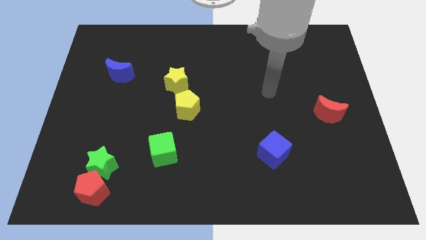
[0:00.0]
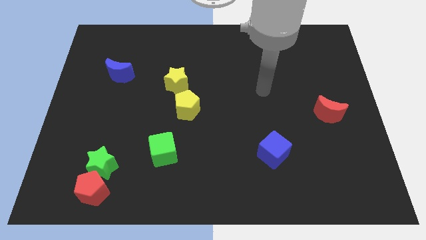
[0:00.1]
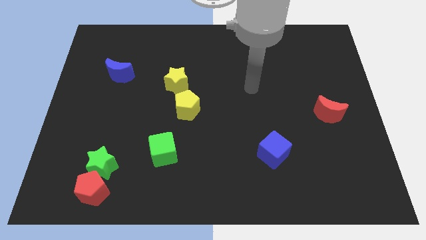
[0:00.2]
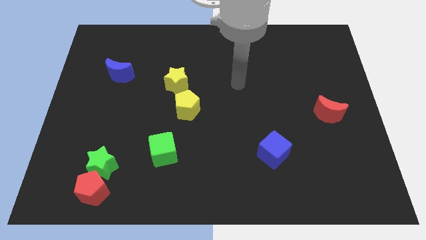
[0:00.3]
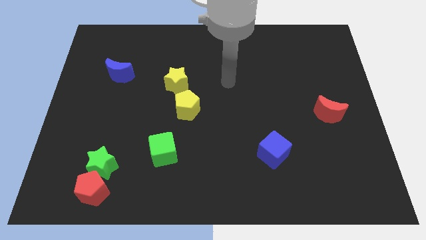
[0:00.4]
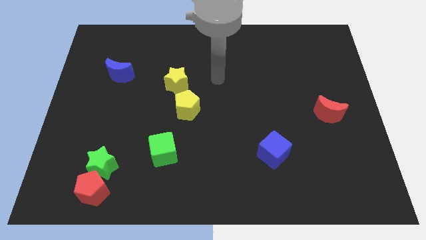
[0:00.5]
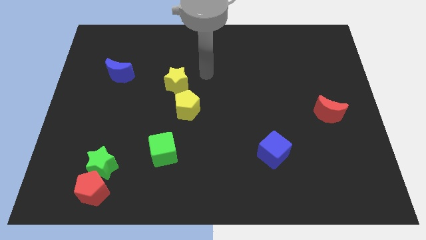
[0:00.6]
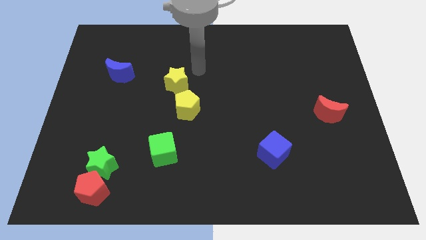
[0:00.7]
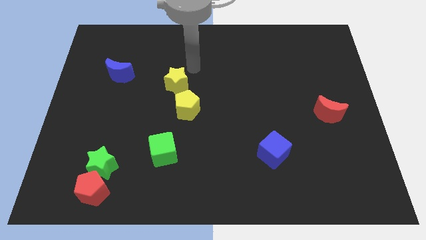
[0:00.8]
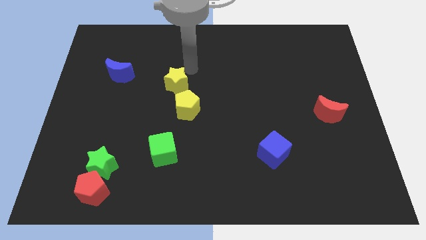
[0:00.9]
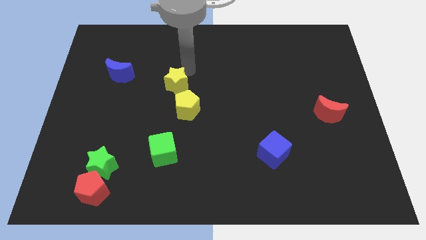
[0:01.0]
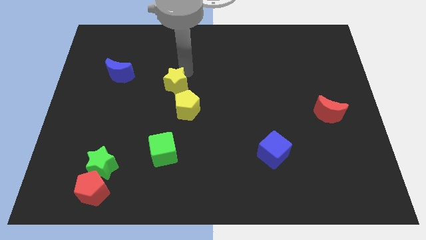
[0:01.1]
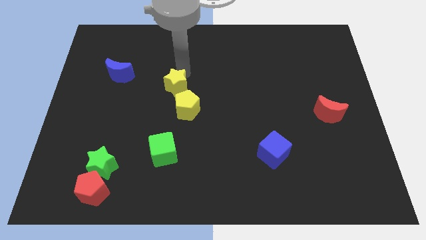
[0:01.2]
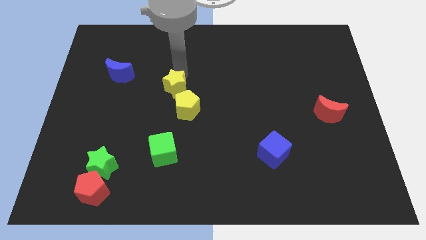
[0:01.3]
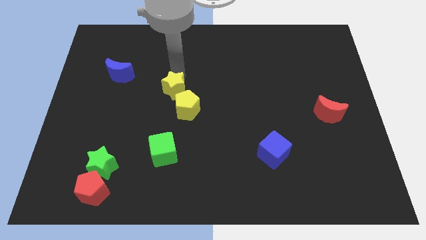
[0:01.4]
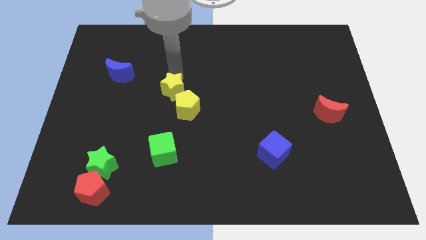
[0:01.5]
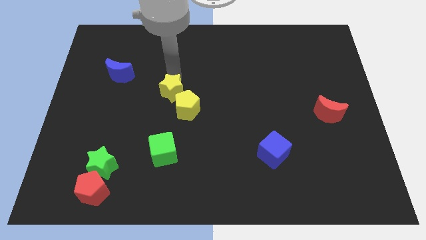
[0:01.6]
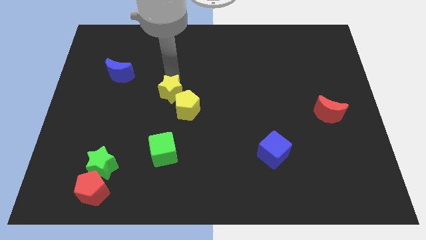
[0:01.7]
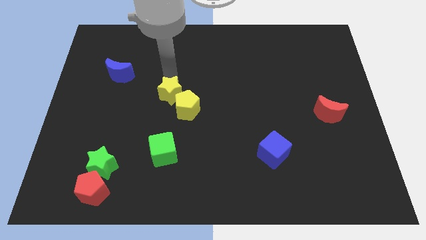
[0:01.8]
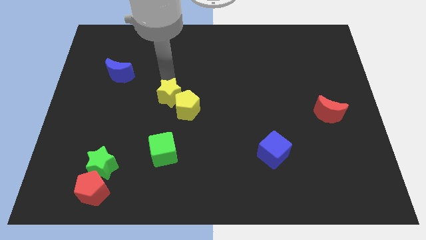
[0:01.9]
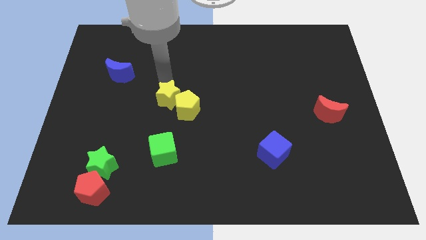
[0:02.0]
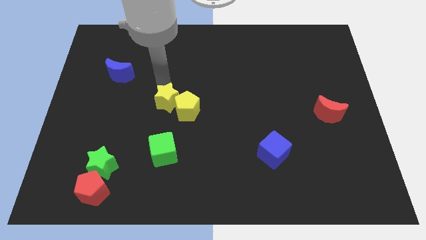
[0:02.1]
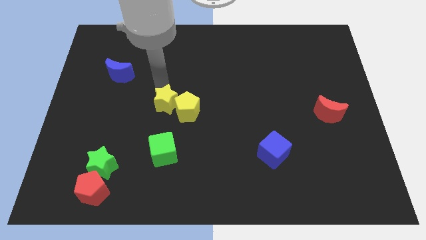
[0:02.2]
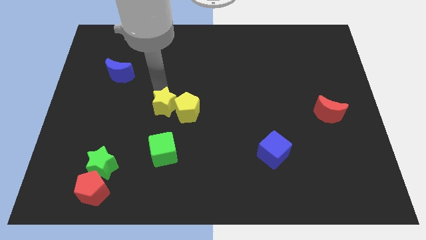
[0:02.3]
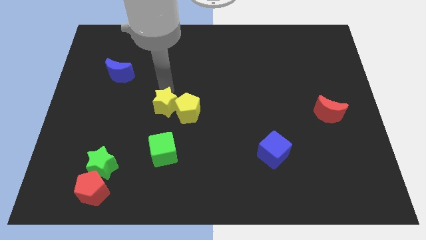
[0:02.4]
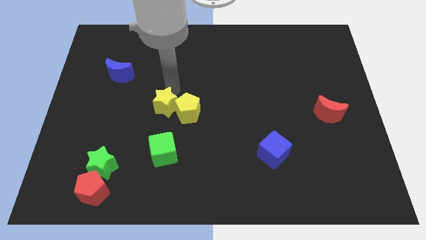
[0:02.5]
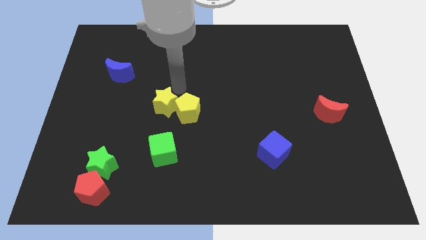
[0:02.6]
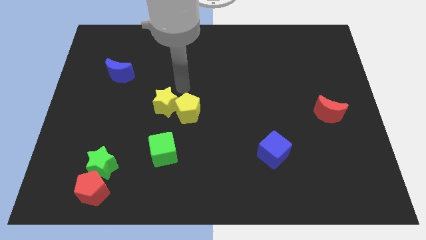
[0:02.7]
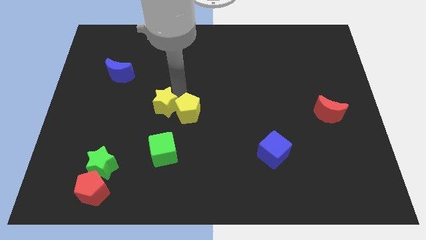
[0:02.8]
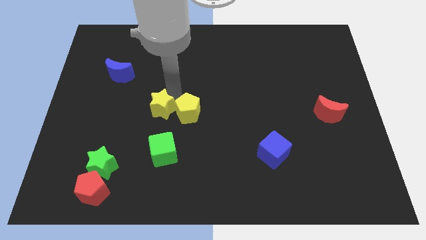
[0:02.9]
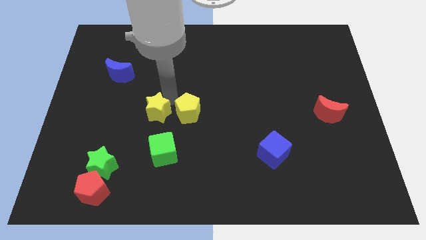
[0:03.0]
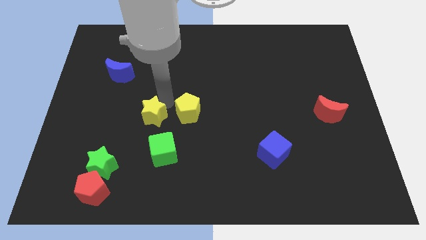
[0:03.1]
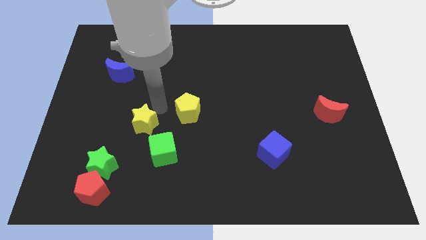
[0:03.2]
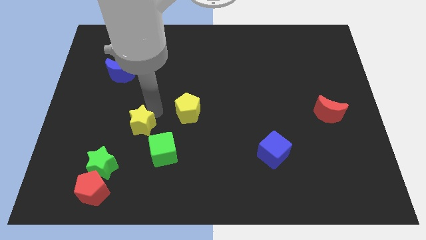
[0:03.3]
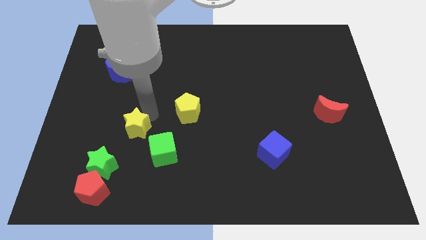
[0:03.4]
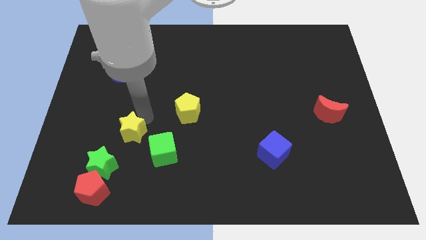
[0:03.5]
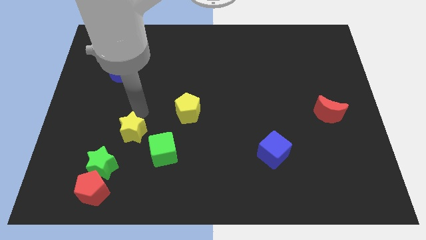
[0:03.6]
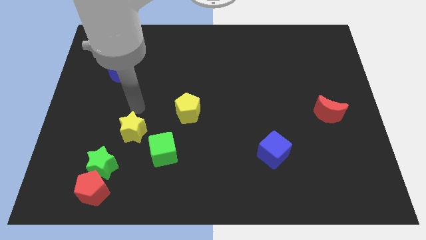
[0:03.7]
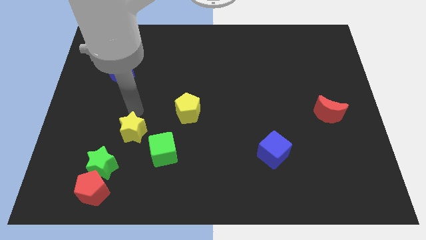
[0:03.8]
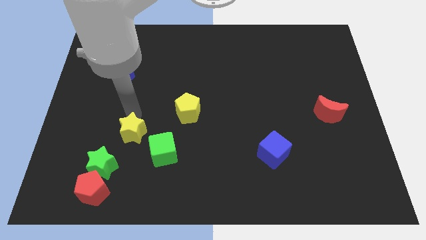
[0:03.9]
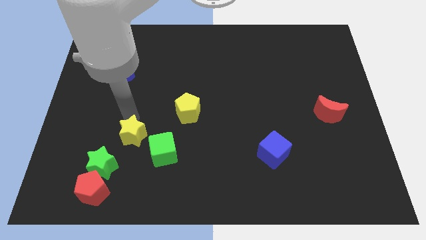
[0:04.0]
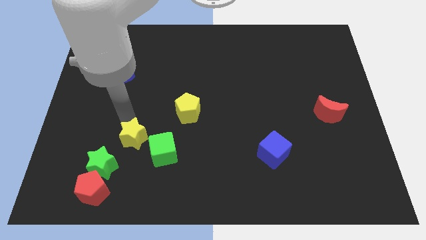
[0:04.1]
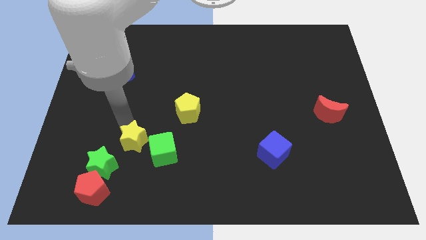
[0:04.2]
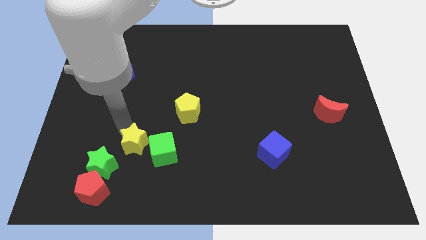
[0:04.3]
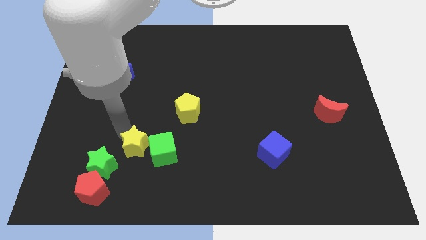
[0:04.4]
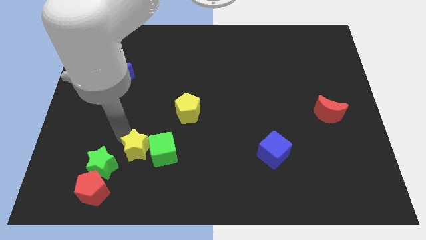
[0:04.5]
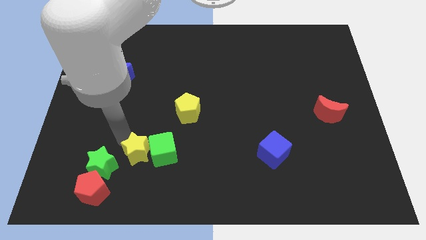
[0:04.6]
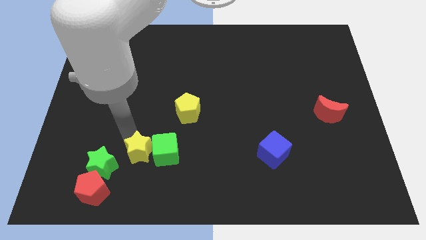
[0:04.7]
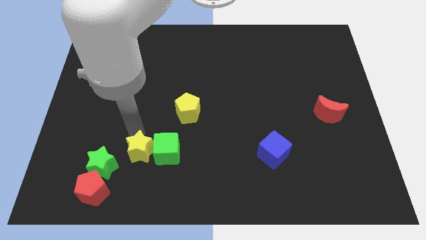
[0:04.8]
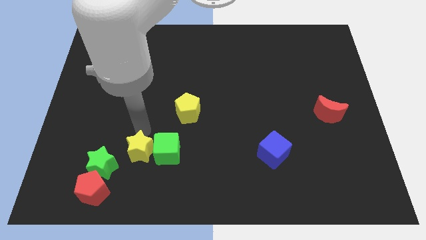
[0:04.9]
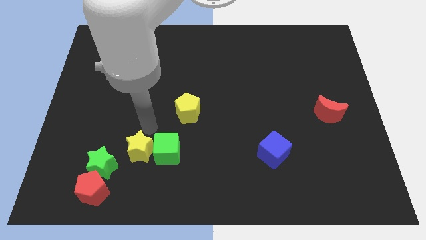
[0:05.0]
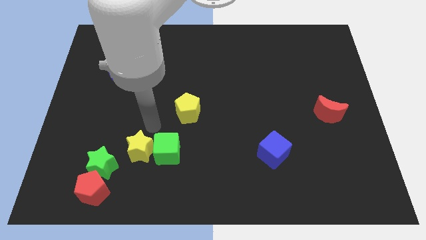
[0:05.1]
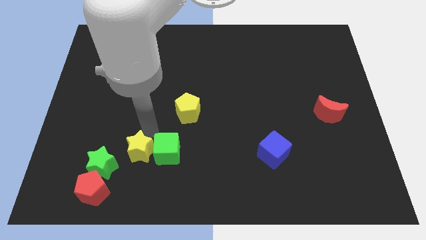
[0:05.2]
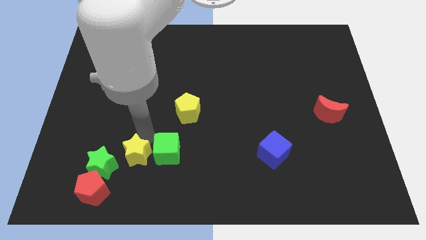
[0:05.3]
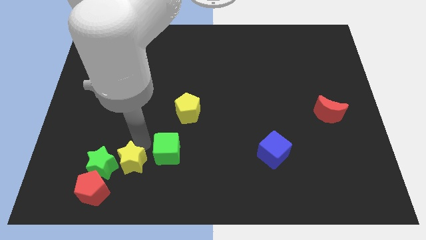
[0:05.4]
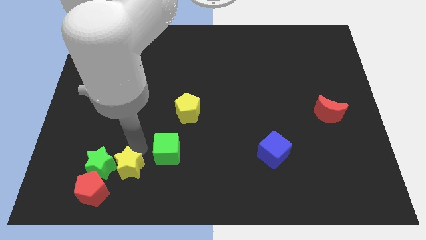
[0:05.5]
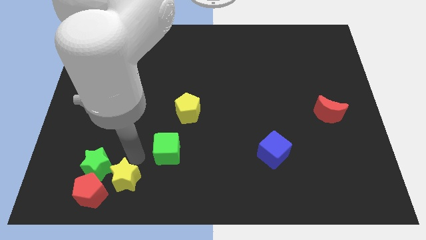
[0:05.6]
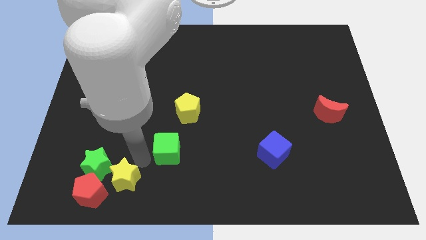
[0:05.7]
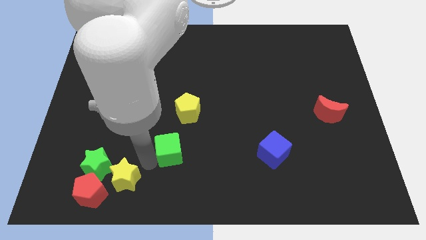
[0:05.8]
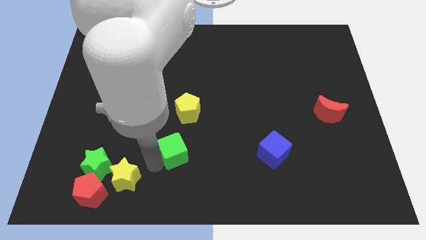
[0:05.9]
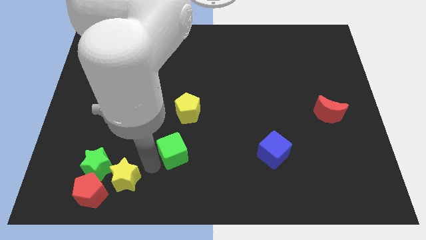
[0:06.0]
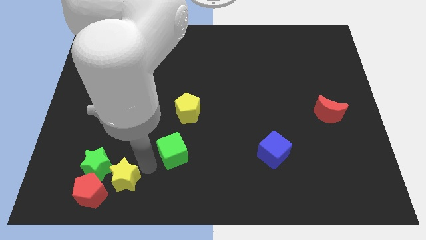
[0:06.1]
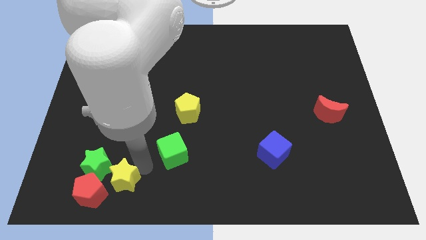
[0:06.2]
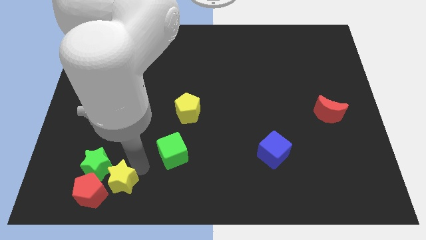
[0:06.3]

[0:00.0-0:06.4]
push the yellow star towards the red pentagon

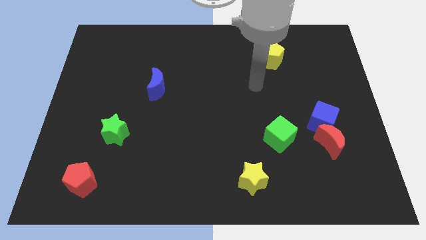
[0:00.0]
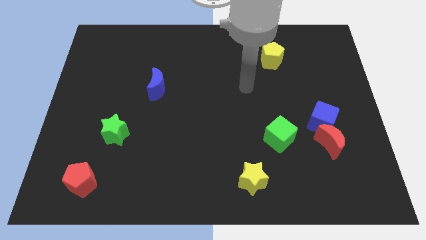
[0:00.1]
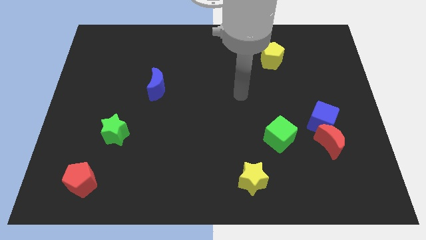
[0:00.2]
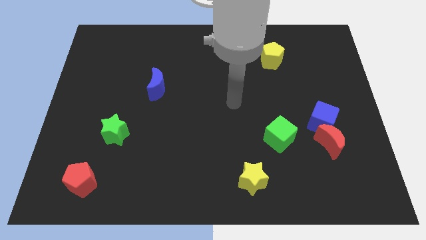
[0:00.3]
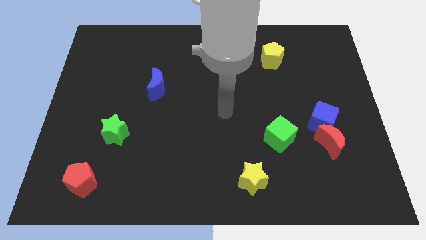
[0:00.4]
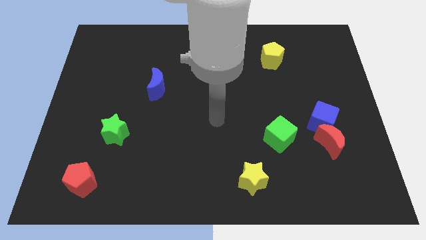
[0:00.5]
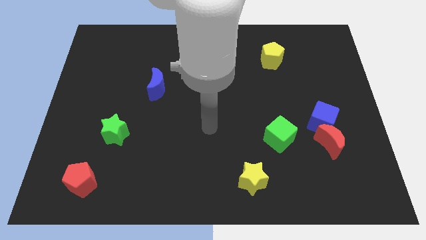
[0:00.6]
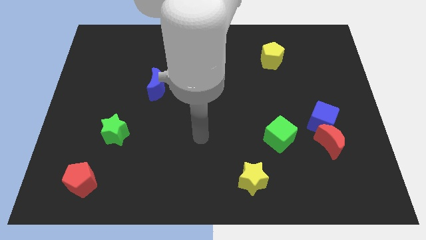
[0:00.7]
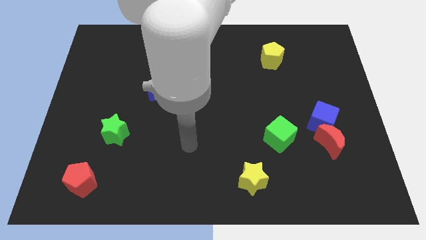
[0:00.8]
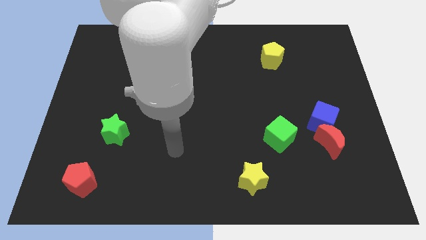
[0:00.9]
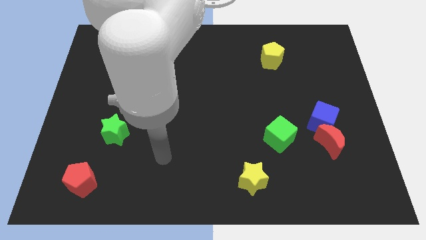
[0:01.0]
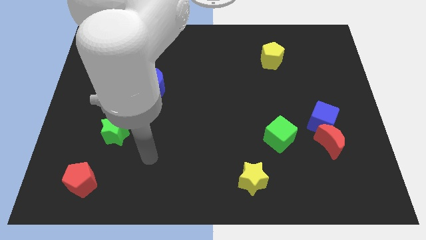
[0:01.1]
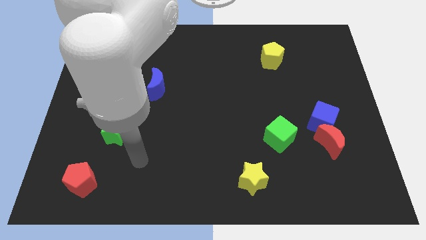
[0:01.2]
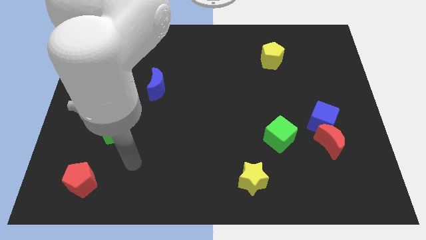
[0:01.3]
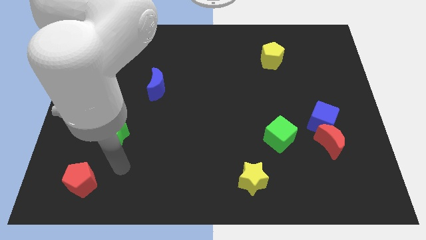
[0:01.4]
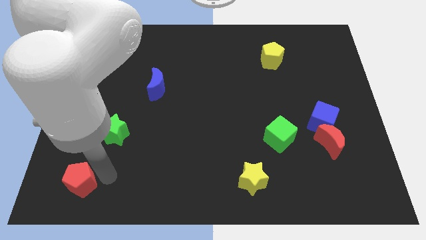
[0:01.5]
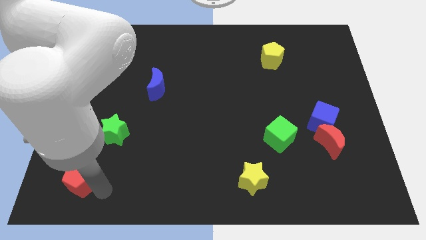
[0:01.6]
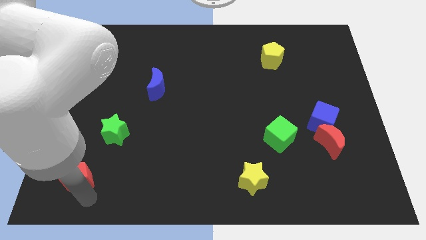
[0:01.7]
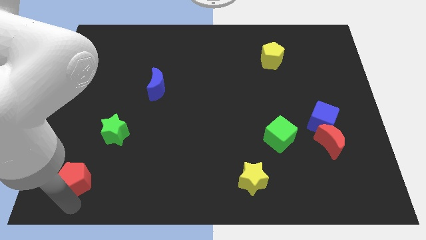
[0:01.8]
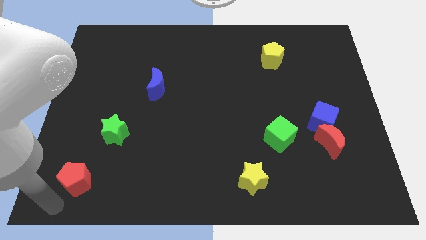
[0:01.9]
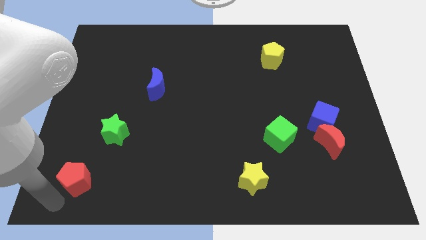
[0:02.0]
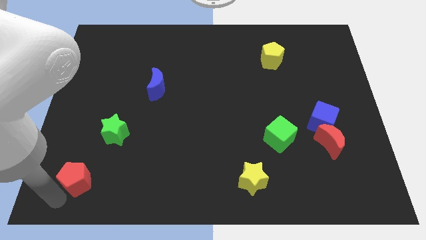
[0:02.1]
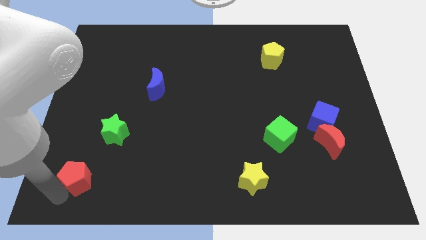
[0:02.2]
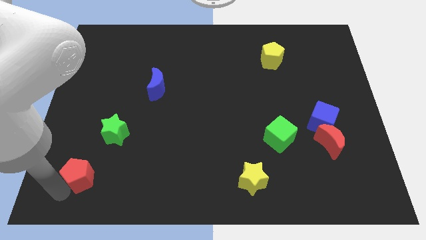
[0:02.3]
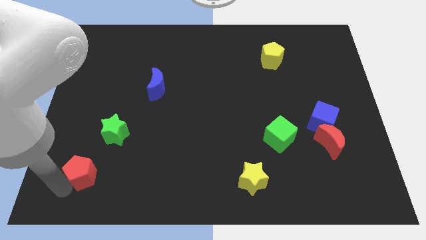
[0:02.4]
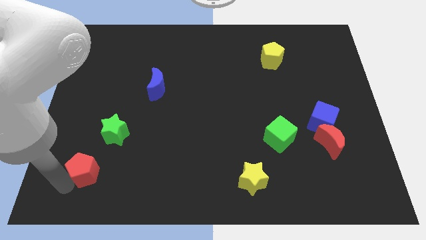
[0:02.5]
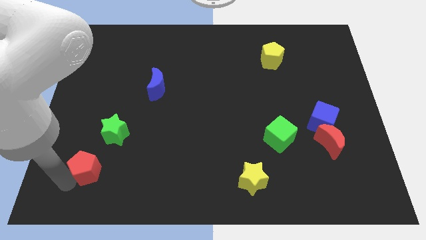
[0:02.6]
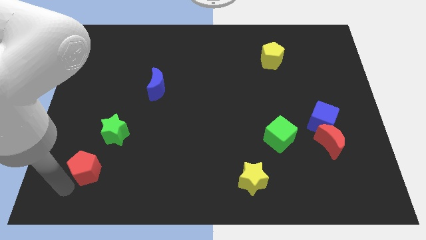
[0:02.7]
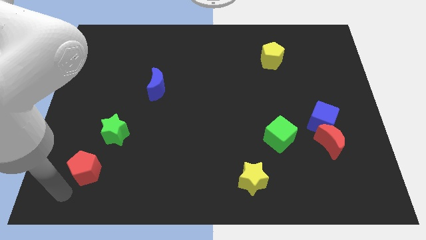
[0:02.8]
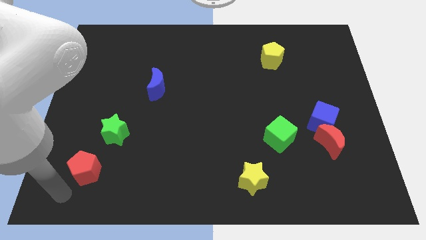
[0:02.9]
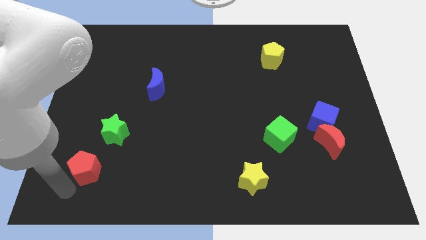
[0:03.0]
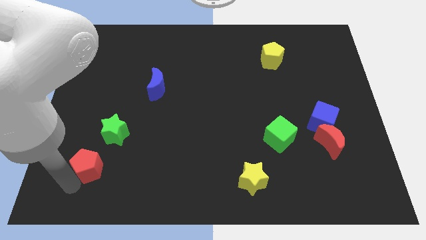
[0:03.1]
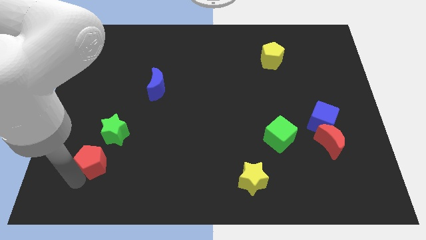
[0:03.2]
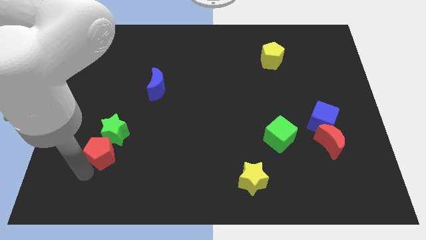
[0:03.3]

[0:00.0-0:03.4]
put the red pentagon to the green star
